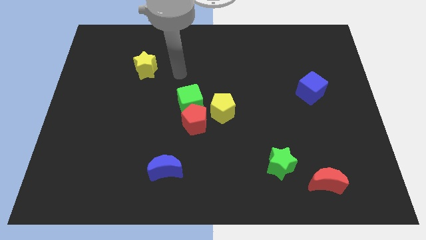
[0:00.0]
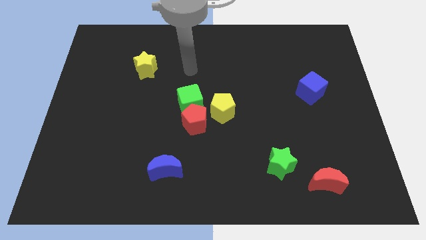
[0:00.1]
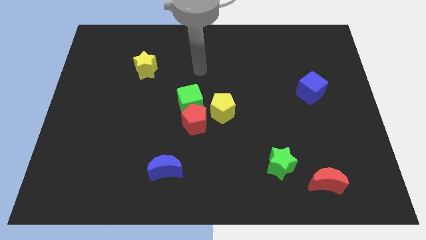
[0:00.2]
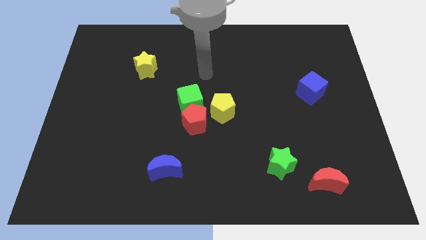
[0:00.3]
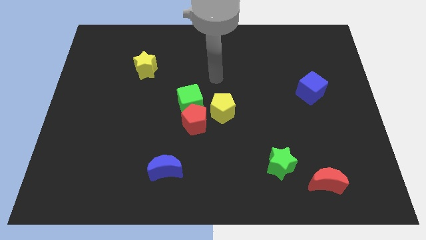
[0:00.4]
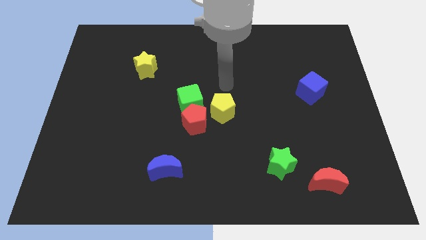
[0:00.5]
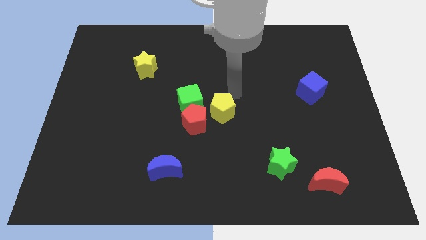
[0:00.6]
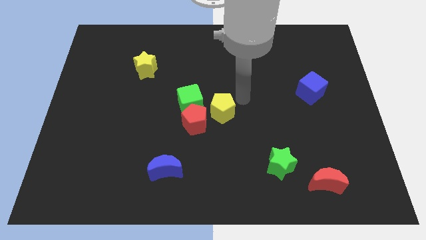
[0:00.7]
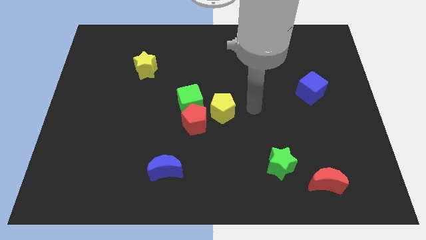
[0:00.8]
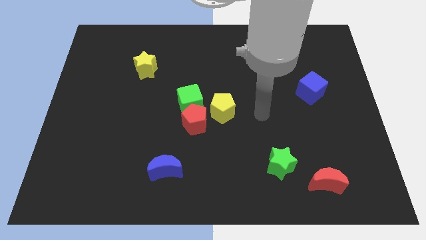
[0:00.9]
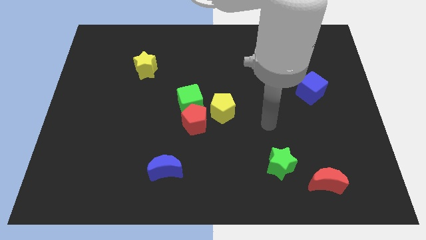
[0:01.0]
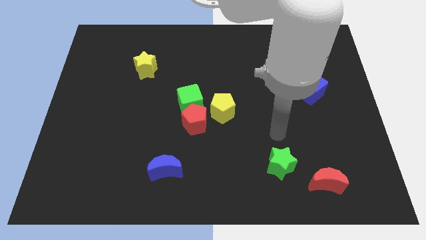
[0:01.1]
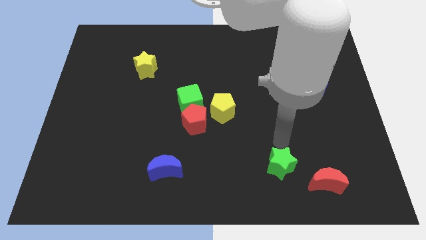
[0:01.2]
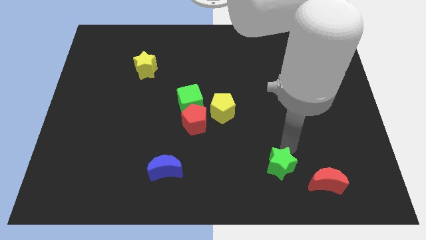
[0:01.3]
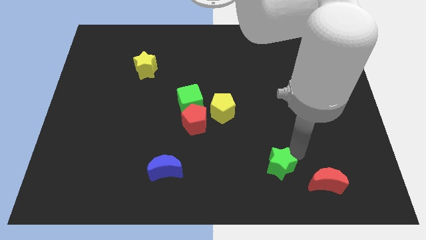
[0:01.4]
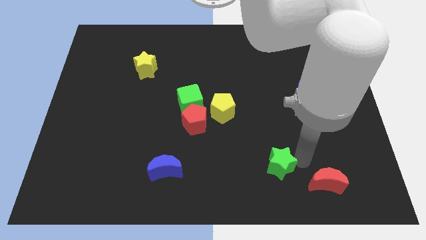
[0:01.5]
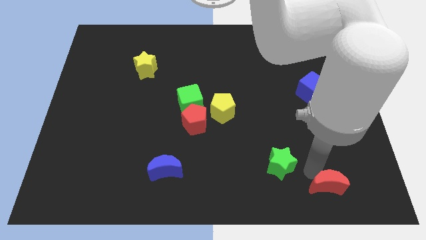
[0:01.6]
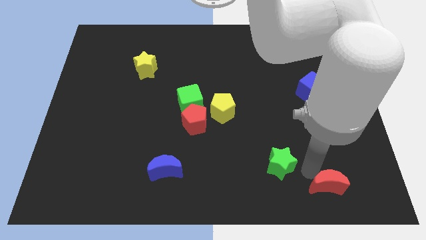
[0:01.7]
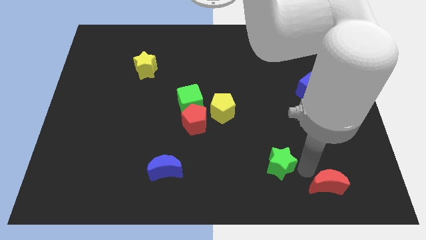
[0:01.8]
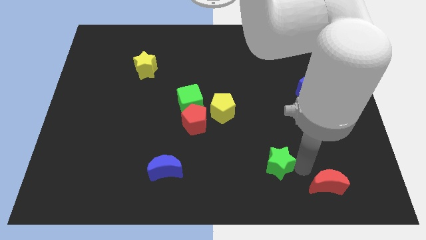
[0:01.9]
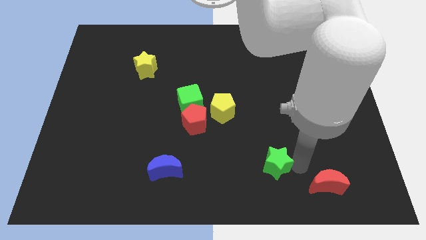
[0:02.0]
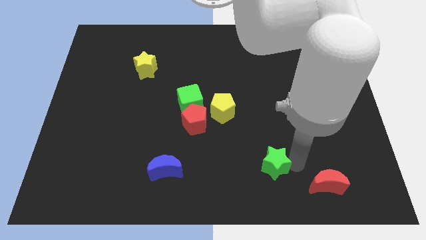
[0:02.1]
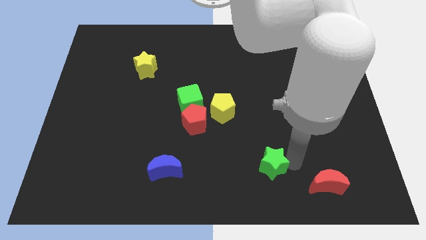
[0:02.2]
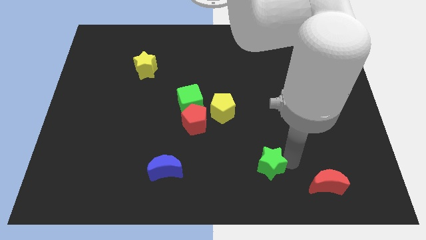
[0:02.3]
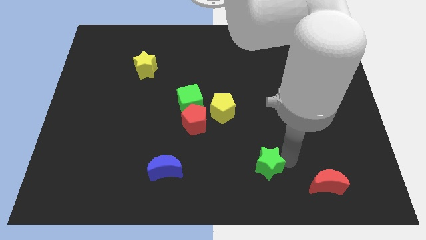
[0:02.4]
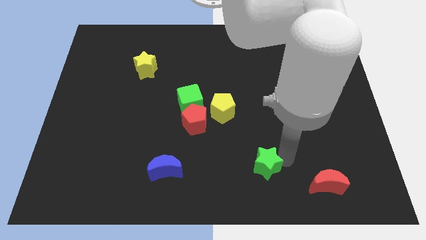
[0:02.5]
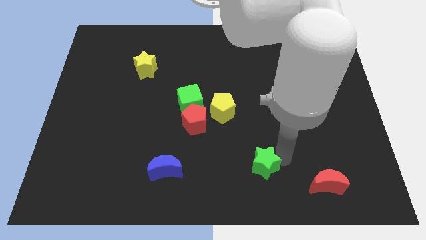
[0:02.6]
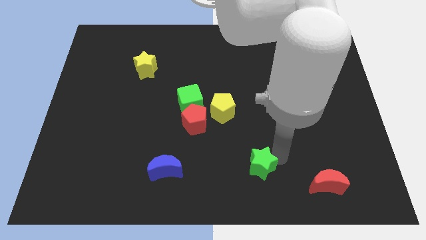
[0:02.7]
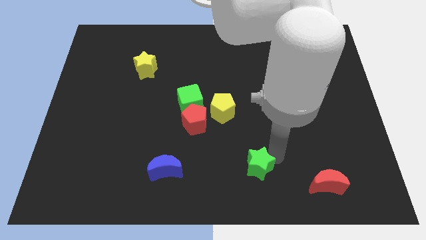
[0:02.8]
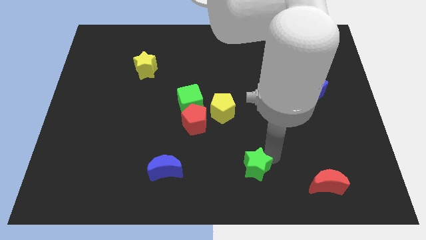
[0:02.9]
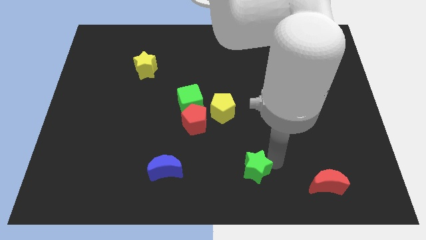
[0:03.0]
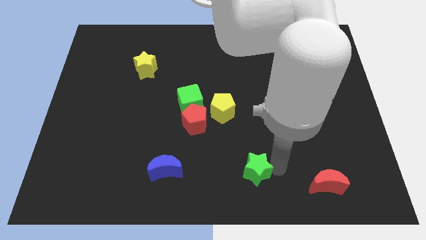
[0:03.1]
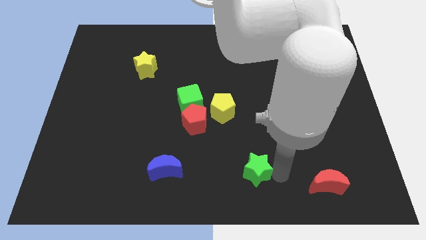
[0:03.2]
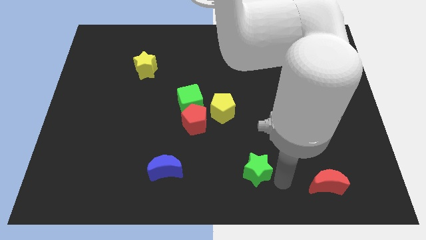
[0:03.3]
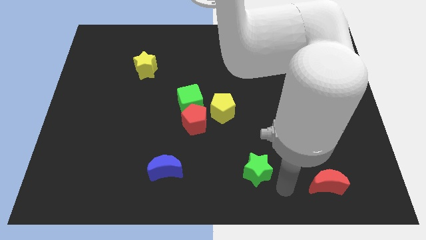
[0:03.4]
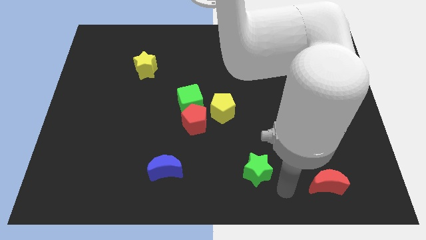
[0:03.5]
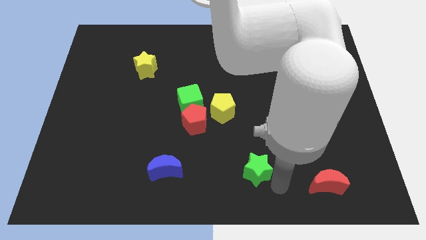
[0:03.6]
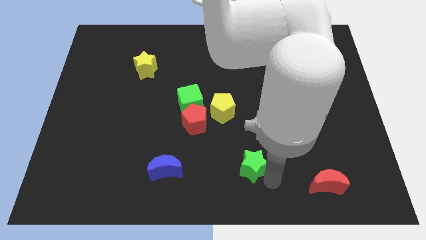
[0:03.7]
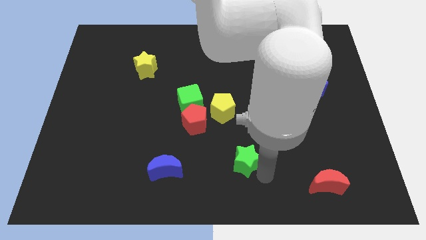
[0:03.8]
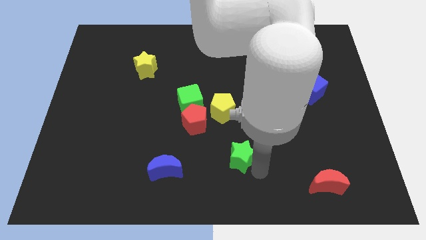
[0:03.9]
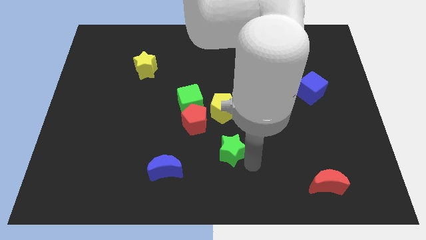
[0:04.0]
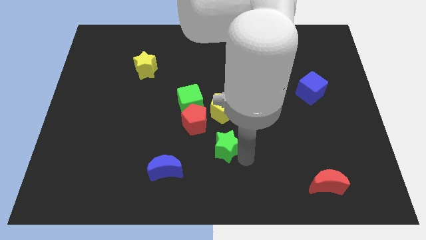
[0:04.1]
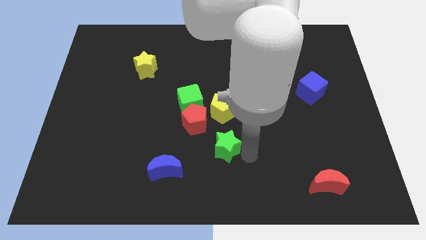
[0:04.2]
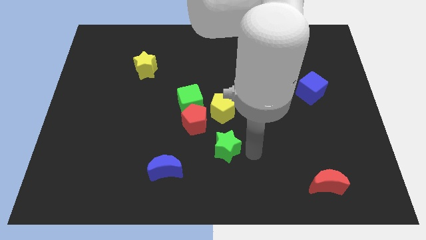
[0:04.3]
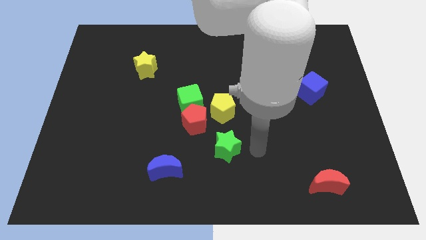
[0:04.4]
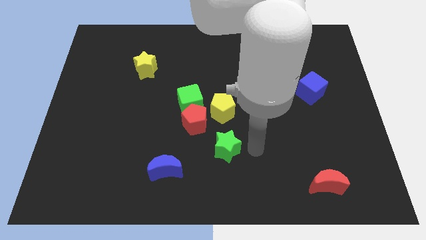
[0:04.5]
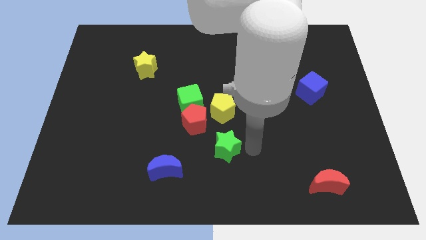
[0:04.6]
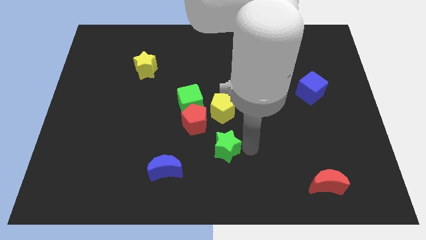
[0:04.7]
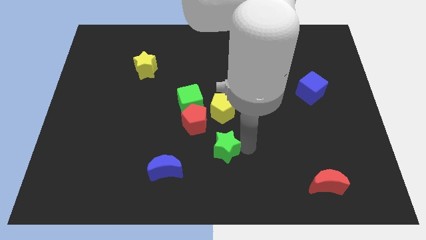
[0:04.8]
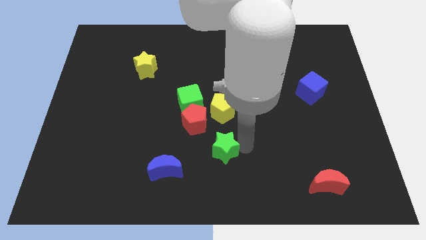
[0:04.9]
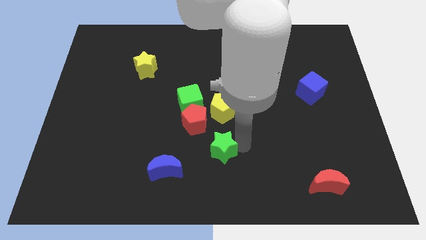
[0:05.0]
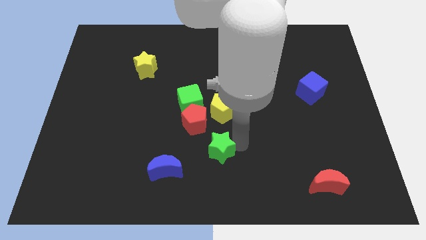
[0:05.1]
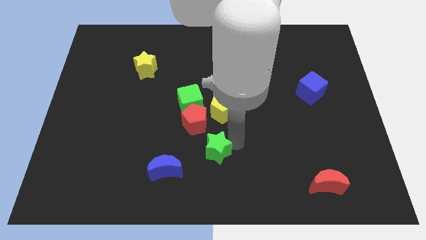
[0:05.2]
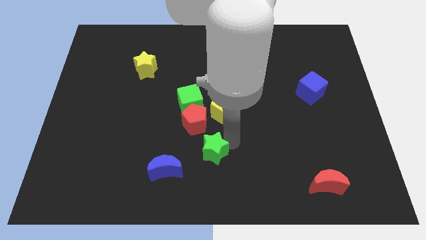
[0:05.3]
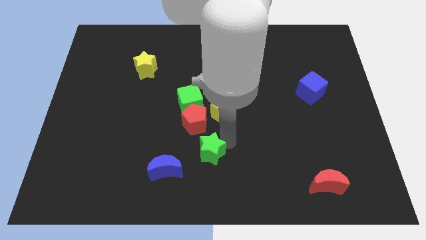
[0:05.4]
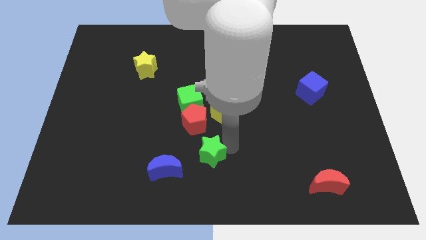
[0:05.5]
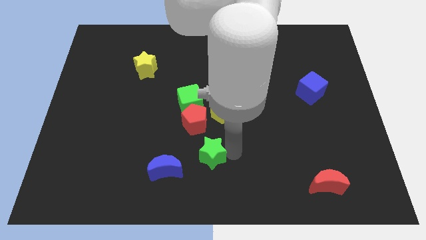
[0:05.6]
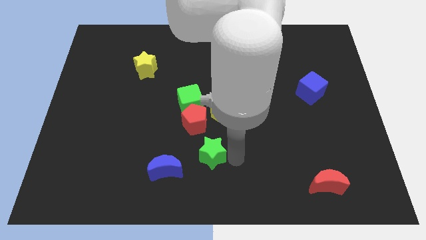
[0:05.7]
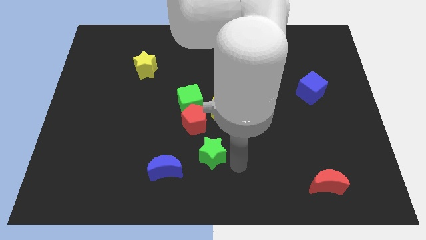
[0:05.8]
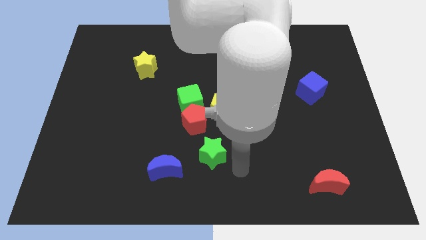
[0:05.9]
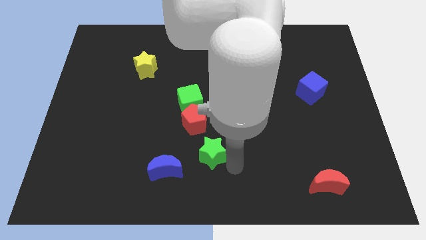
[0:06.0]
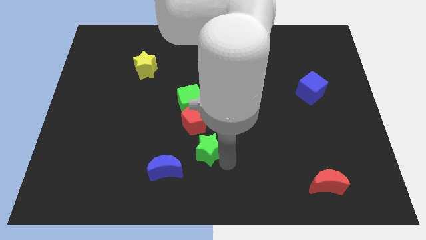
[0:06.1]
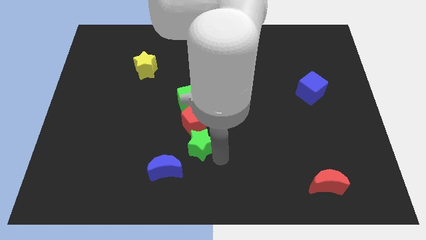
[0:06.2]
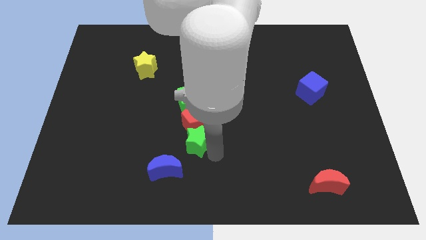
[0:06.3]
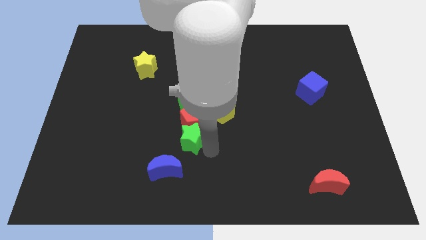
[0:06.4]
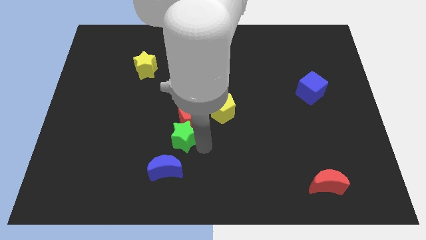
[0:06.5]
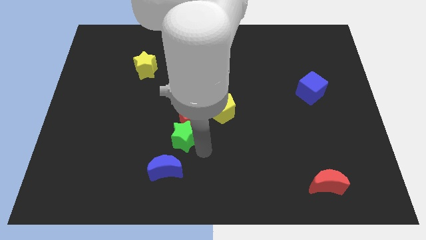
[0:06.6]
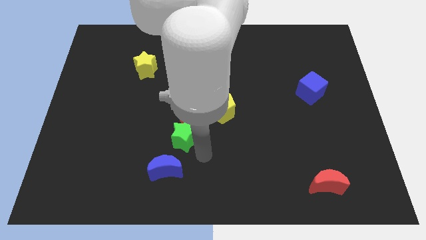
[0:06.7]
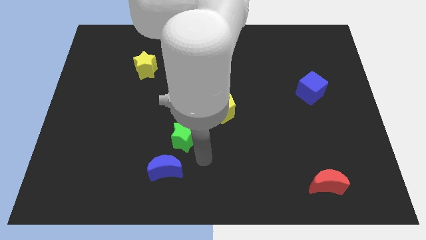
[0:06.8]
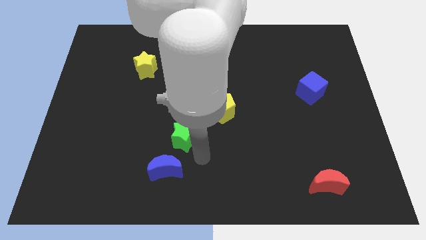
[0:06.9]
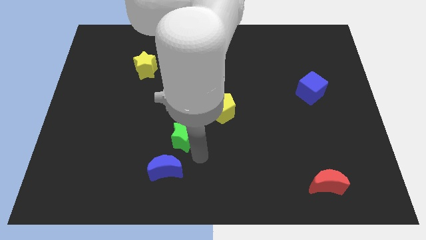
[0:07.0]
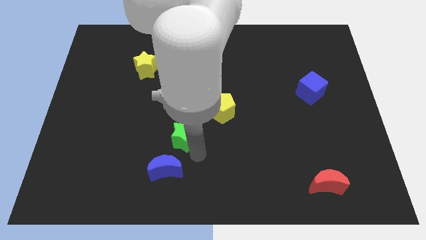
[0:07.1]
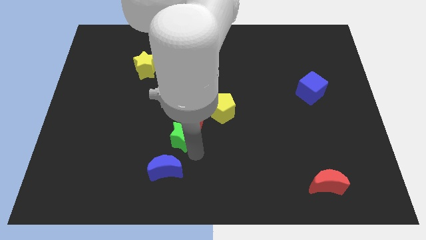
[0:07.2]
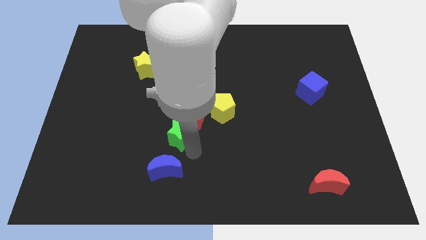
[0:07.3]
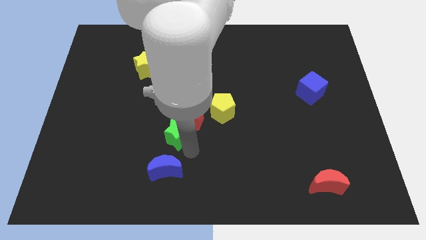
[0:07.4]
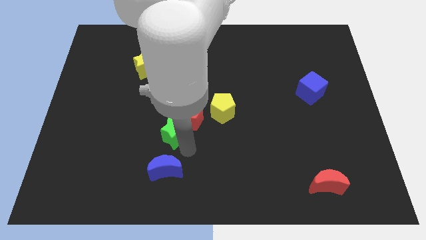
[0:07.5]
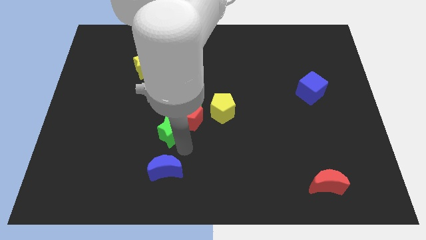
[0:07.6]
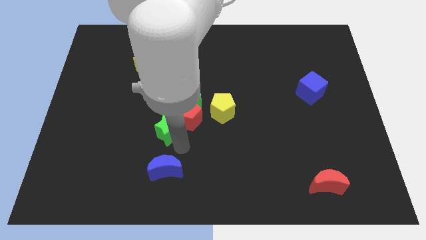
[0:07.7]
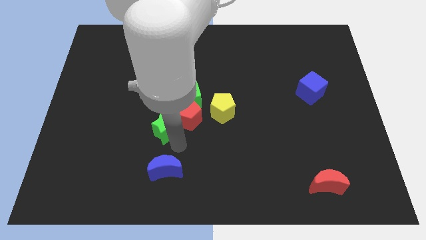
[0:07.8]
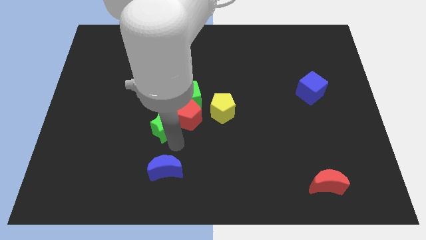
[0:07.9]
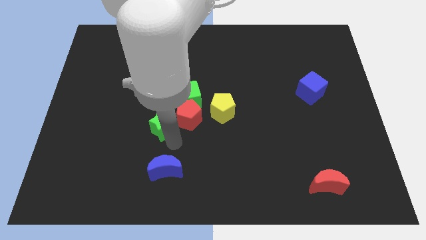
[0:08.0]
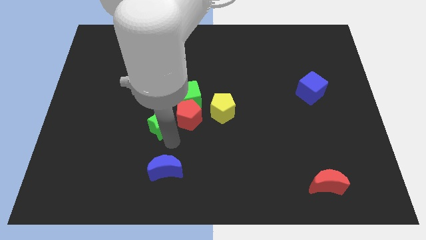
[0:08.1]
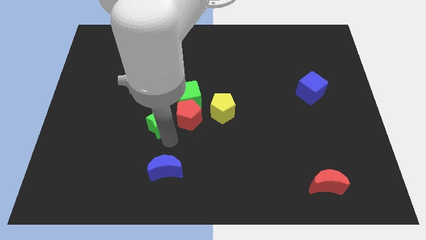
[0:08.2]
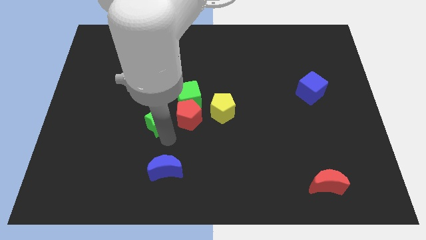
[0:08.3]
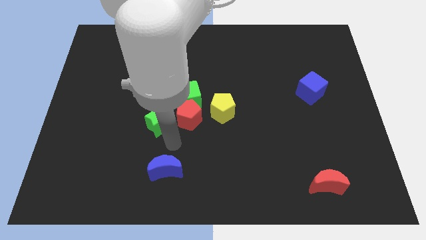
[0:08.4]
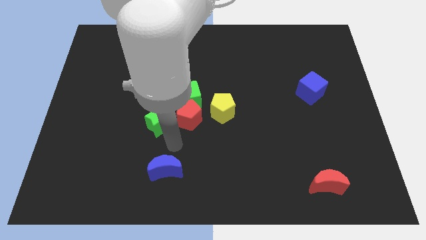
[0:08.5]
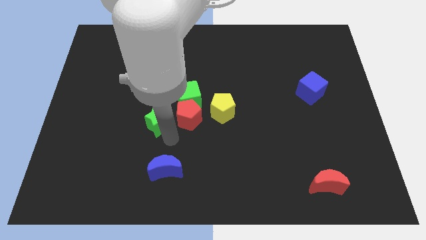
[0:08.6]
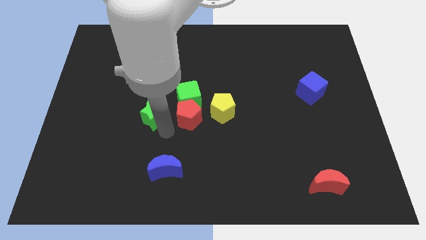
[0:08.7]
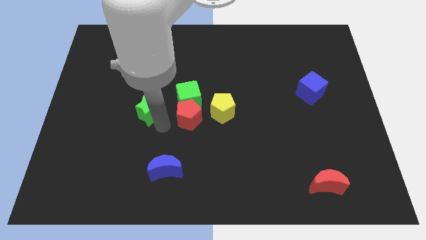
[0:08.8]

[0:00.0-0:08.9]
move the green star to the left of the green cube
